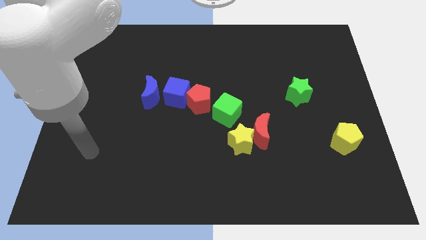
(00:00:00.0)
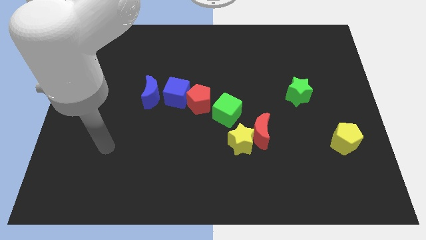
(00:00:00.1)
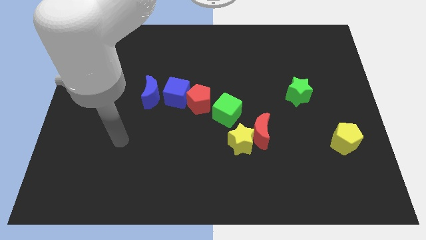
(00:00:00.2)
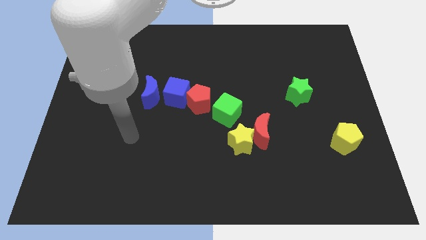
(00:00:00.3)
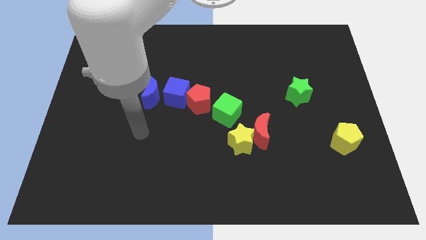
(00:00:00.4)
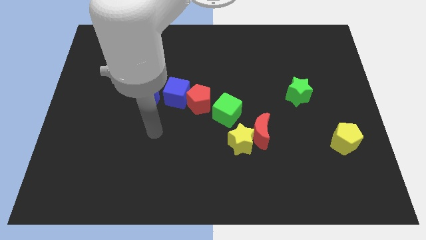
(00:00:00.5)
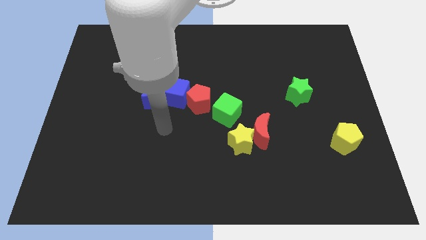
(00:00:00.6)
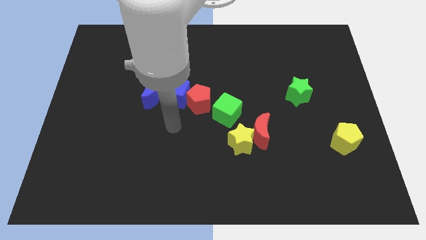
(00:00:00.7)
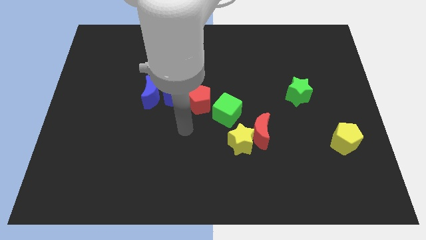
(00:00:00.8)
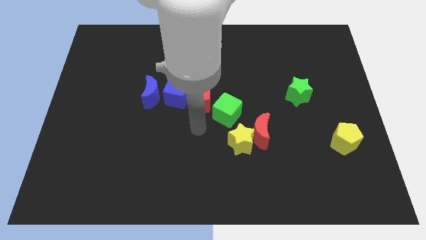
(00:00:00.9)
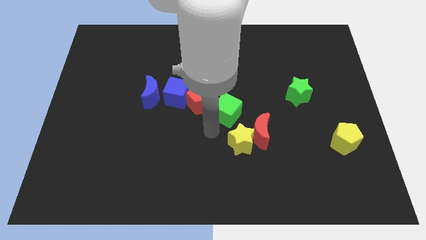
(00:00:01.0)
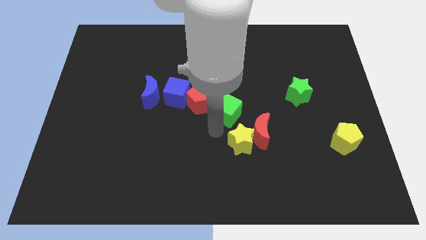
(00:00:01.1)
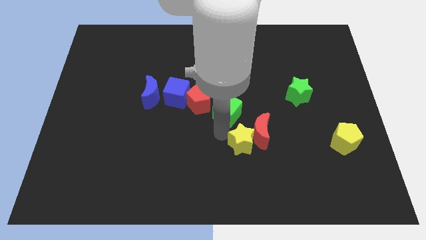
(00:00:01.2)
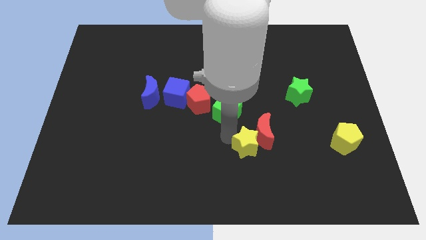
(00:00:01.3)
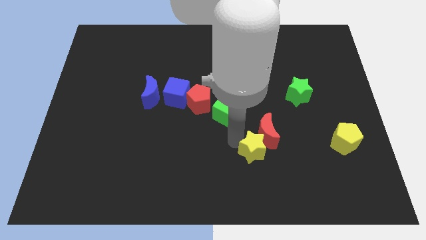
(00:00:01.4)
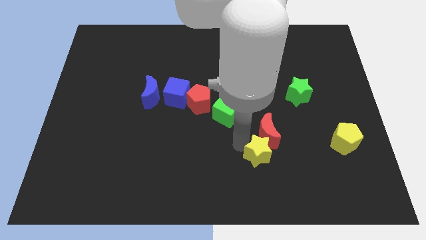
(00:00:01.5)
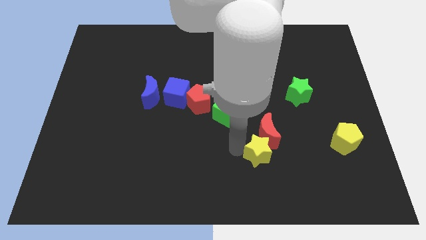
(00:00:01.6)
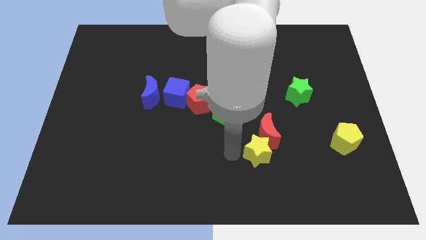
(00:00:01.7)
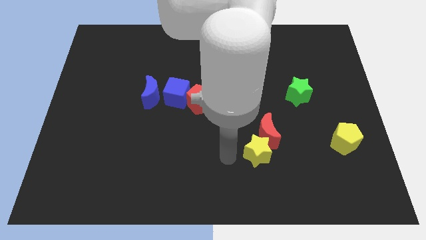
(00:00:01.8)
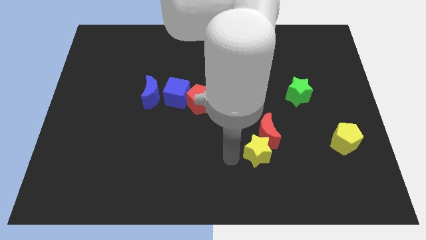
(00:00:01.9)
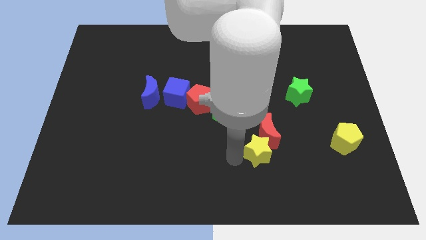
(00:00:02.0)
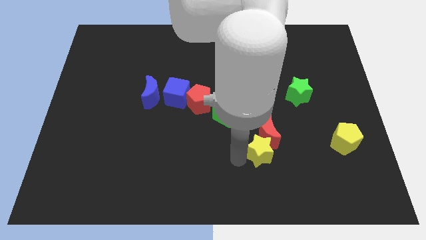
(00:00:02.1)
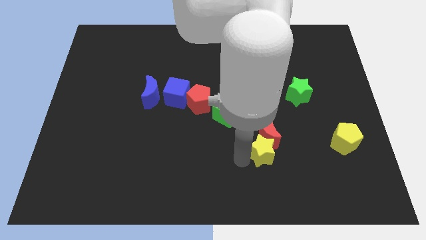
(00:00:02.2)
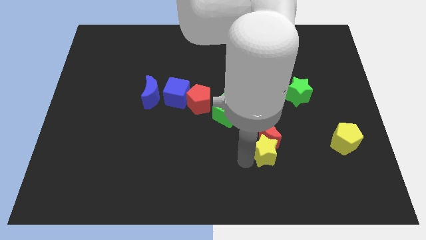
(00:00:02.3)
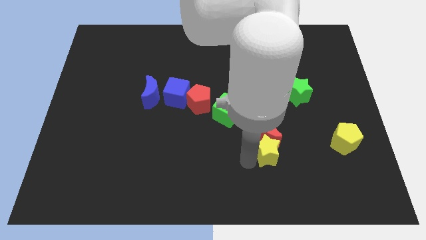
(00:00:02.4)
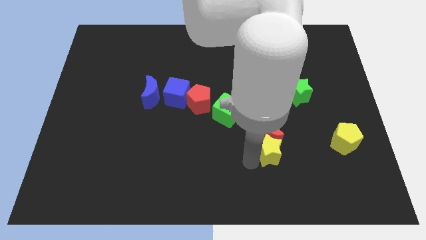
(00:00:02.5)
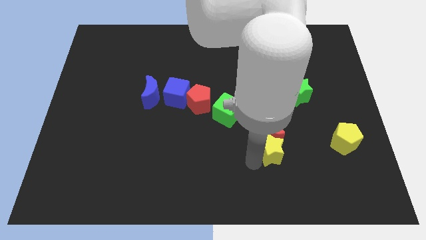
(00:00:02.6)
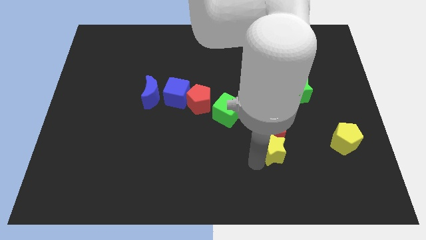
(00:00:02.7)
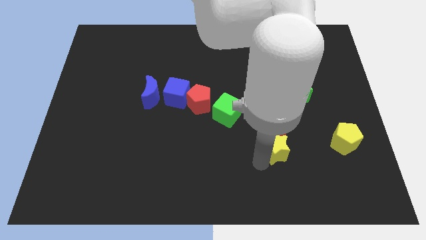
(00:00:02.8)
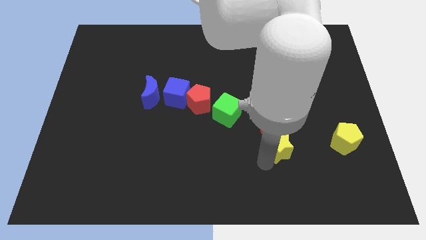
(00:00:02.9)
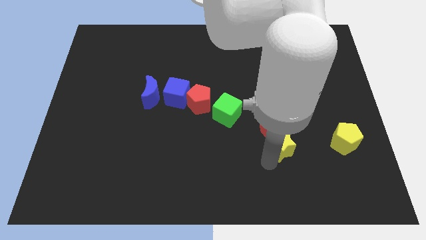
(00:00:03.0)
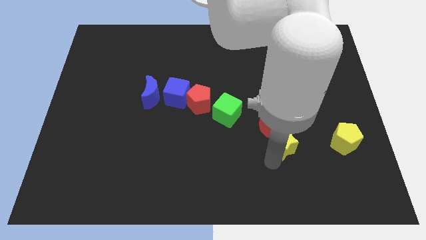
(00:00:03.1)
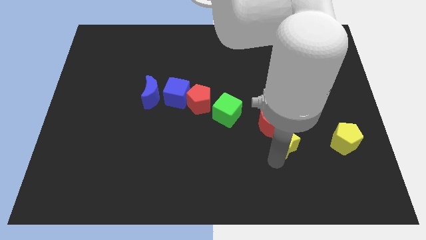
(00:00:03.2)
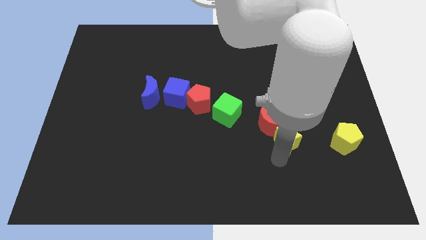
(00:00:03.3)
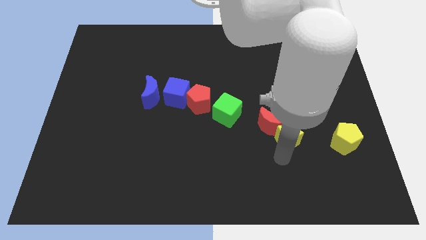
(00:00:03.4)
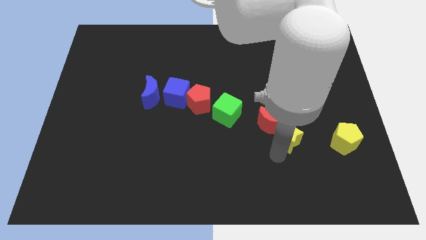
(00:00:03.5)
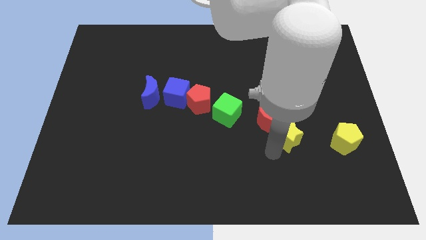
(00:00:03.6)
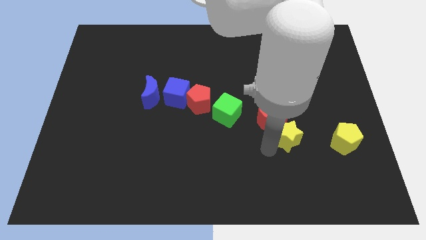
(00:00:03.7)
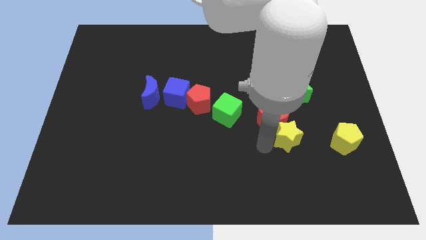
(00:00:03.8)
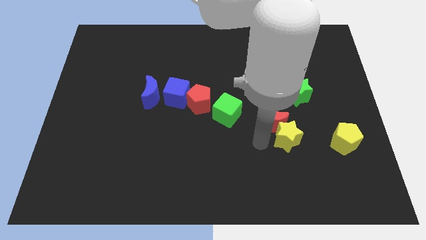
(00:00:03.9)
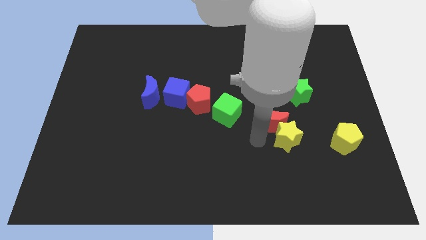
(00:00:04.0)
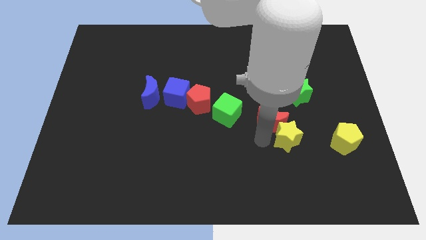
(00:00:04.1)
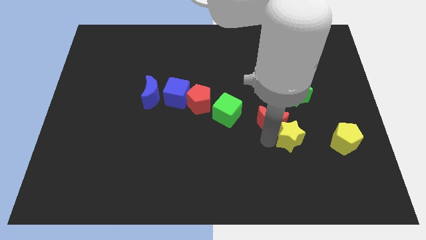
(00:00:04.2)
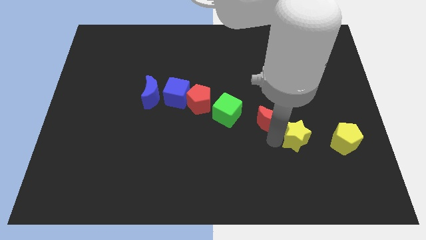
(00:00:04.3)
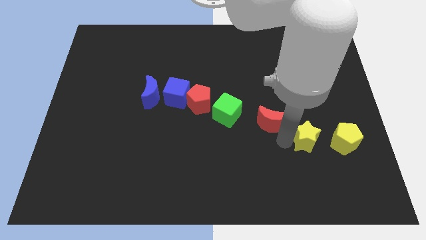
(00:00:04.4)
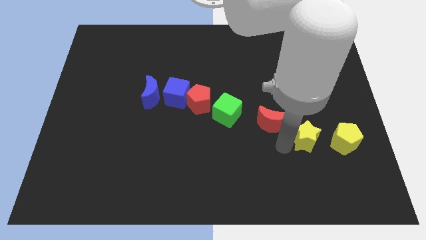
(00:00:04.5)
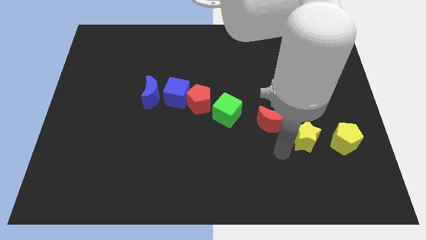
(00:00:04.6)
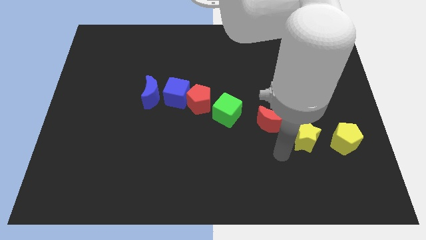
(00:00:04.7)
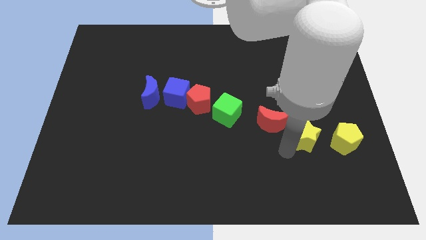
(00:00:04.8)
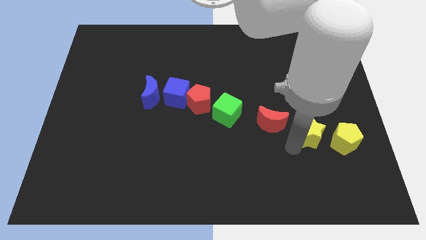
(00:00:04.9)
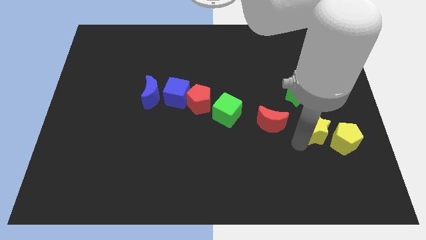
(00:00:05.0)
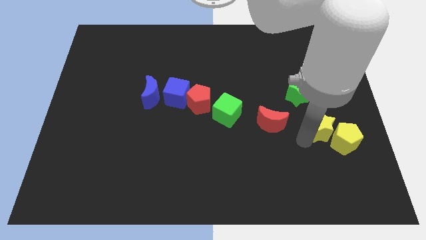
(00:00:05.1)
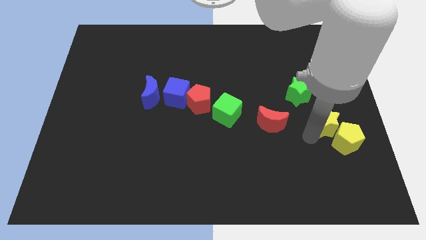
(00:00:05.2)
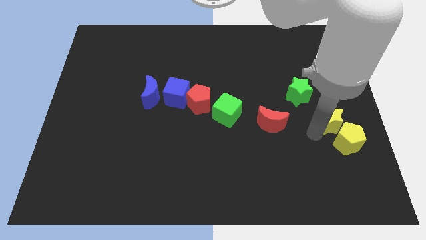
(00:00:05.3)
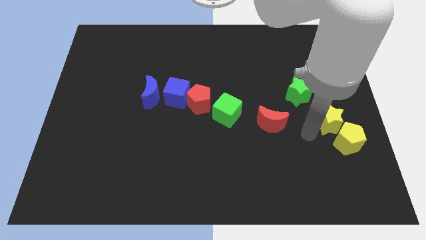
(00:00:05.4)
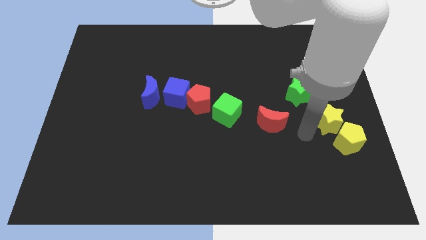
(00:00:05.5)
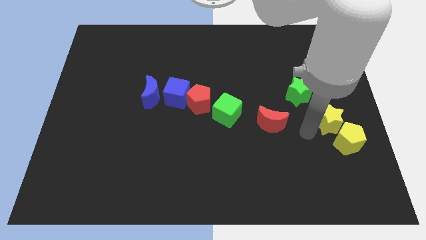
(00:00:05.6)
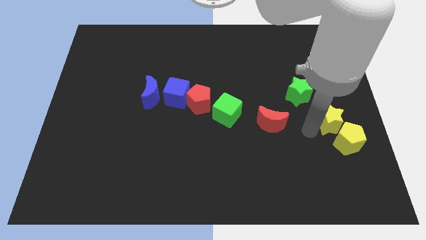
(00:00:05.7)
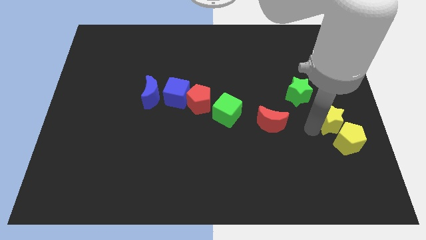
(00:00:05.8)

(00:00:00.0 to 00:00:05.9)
move the yellow star to the right side
